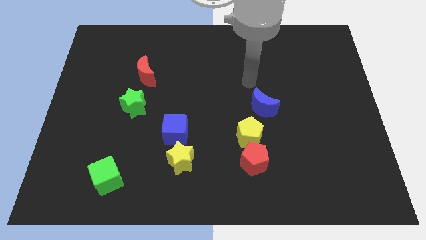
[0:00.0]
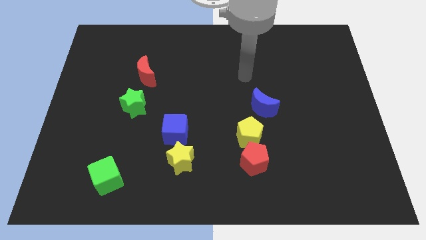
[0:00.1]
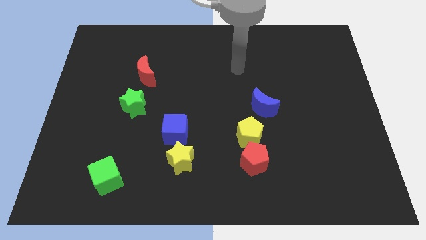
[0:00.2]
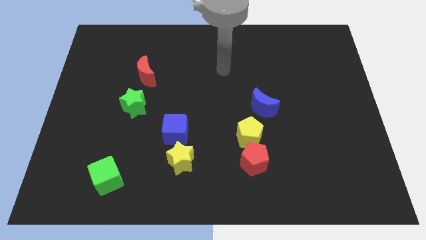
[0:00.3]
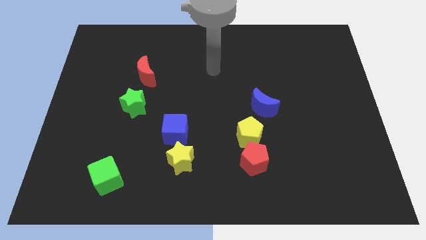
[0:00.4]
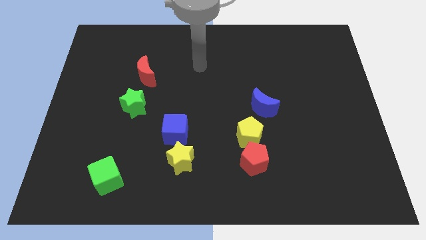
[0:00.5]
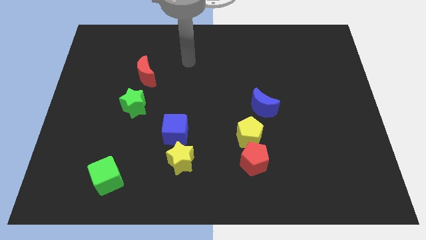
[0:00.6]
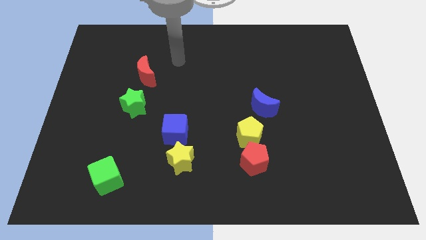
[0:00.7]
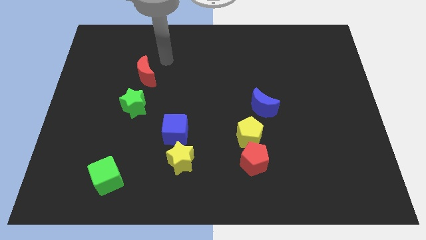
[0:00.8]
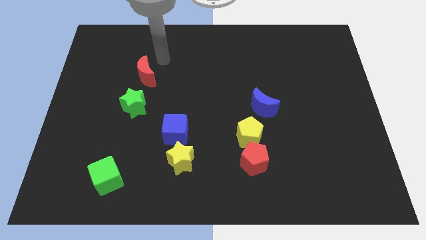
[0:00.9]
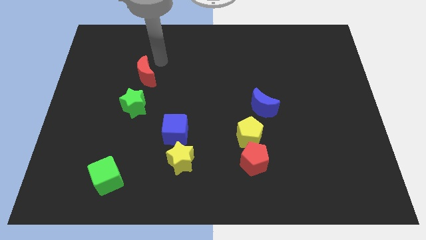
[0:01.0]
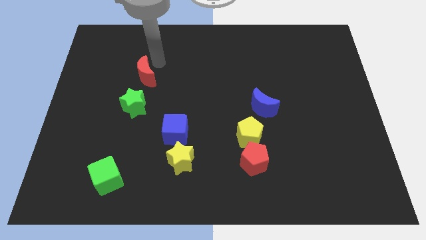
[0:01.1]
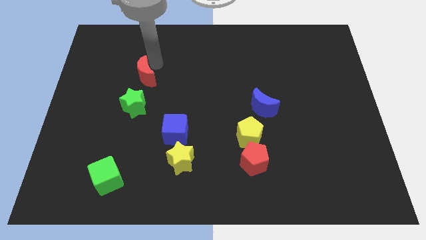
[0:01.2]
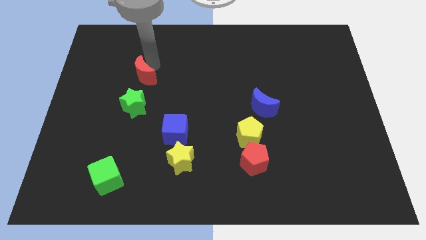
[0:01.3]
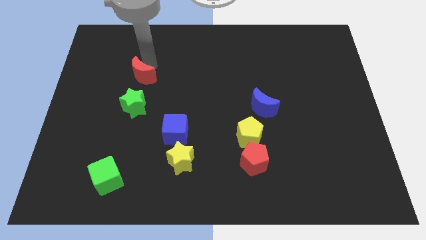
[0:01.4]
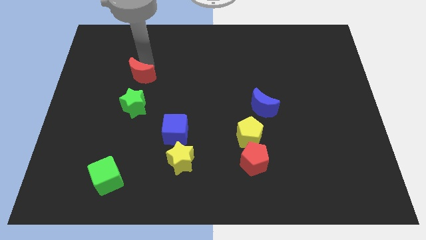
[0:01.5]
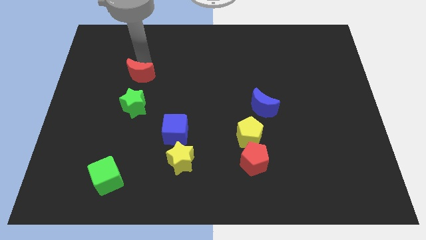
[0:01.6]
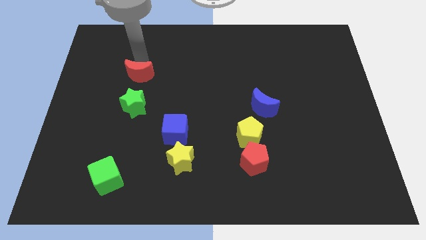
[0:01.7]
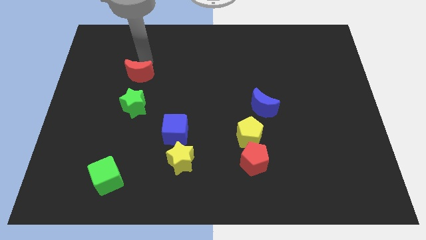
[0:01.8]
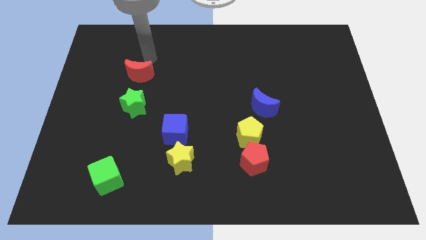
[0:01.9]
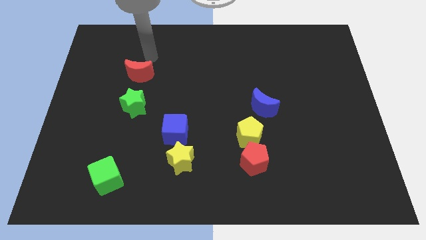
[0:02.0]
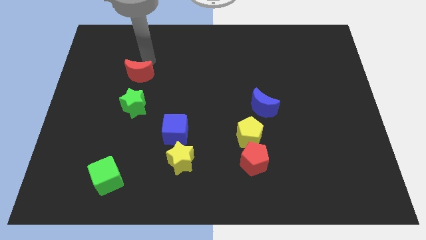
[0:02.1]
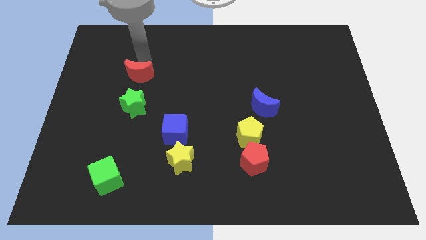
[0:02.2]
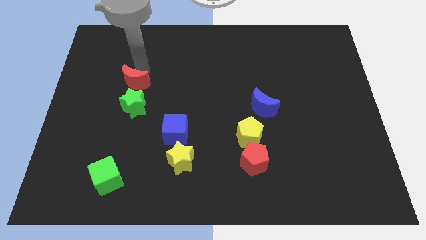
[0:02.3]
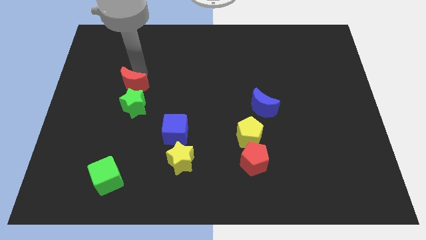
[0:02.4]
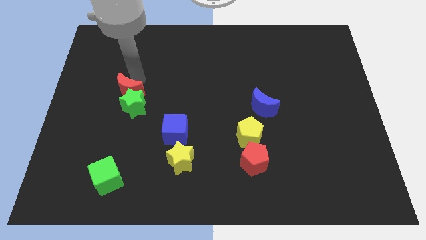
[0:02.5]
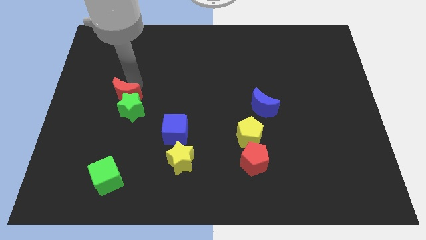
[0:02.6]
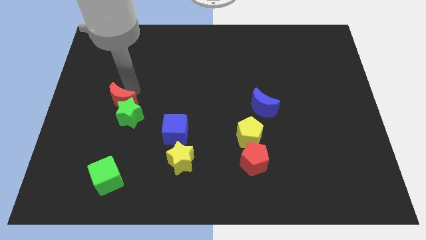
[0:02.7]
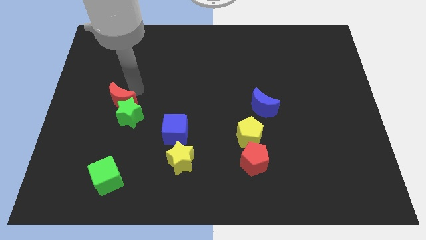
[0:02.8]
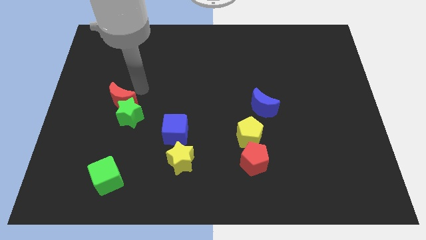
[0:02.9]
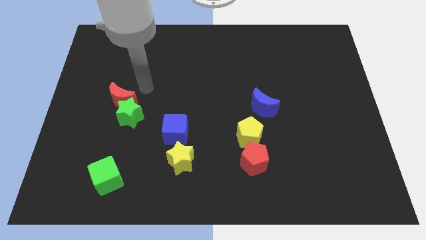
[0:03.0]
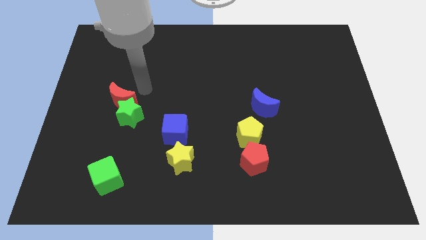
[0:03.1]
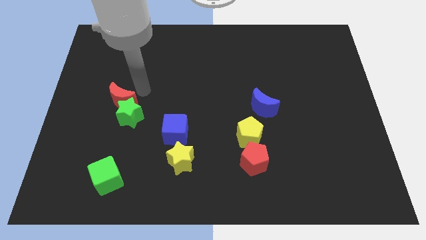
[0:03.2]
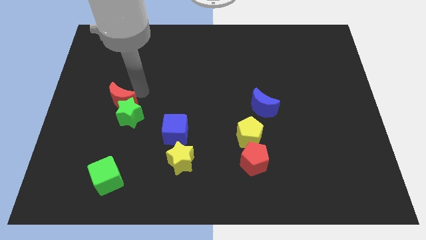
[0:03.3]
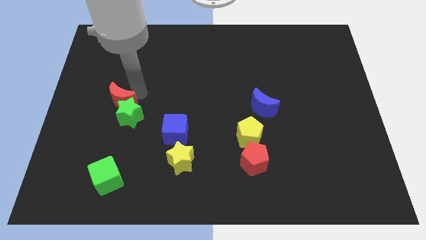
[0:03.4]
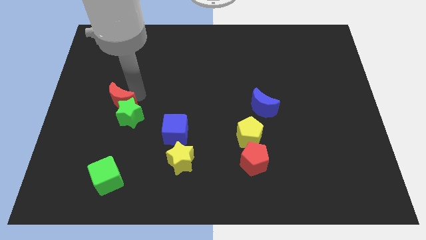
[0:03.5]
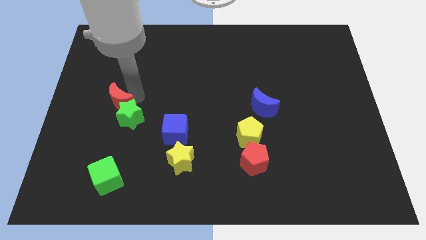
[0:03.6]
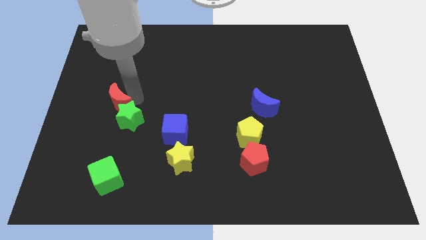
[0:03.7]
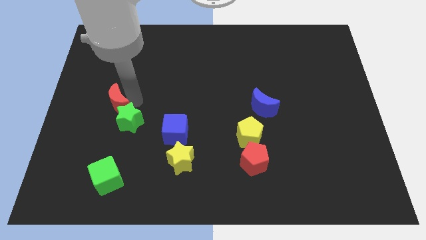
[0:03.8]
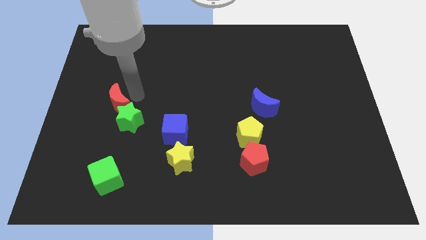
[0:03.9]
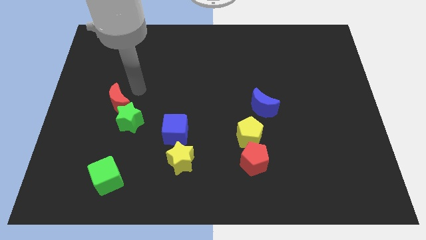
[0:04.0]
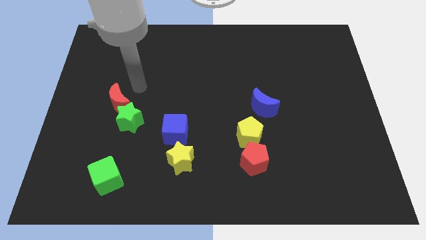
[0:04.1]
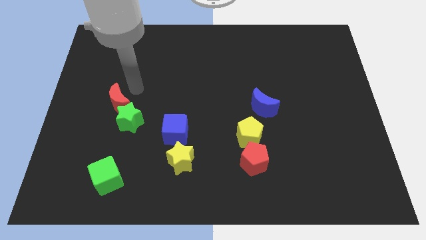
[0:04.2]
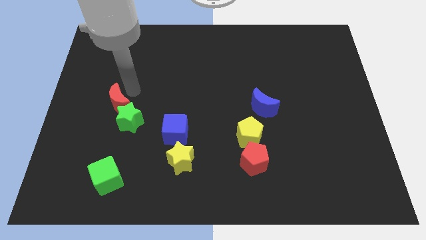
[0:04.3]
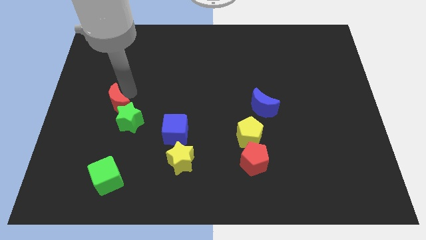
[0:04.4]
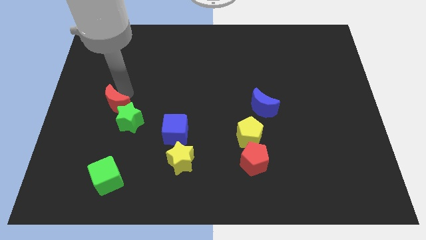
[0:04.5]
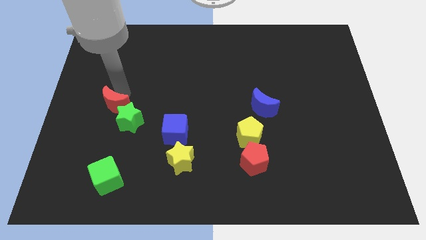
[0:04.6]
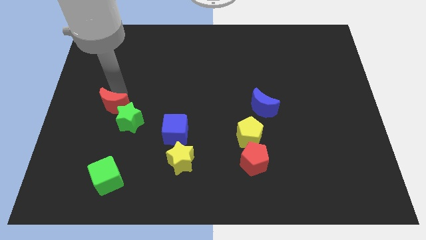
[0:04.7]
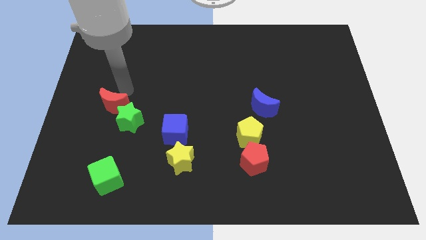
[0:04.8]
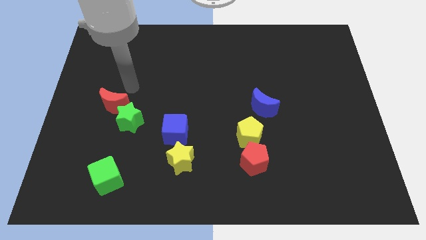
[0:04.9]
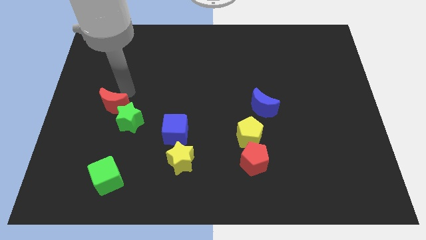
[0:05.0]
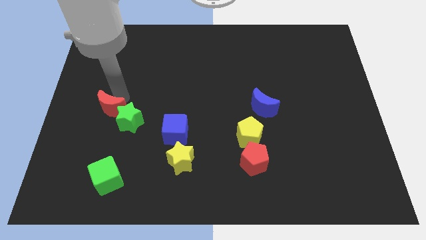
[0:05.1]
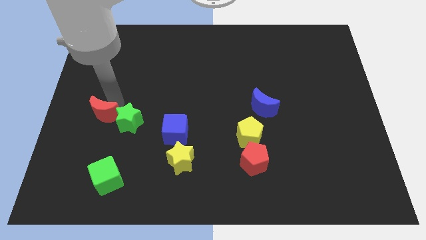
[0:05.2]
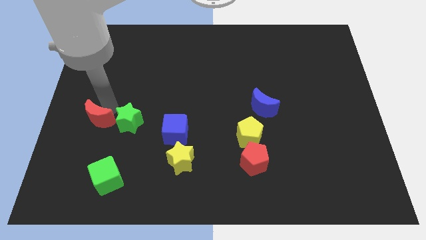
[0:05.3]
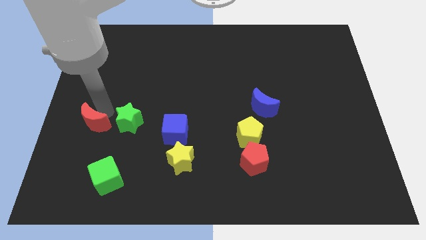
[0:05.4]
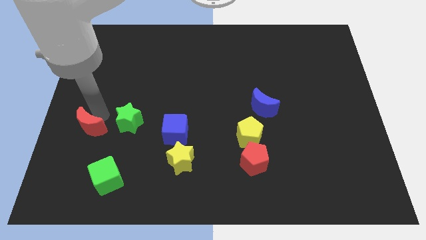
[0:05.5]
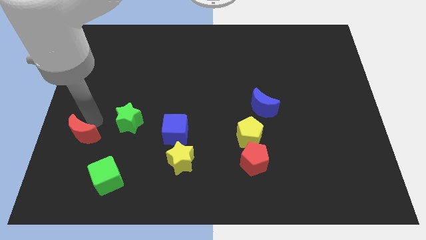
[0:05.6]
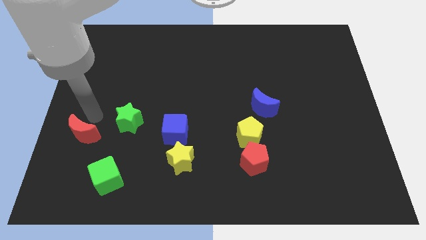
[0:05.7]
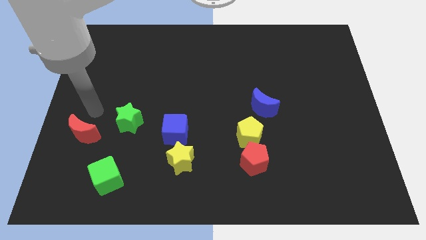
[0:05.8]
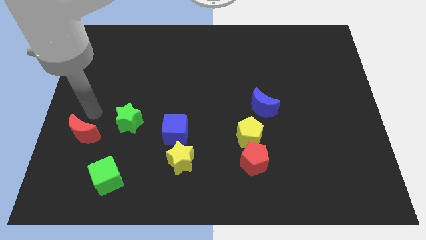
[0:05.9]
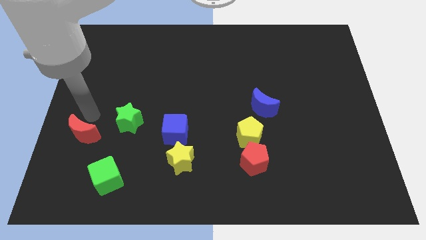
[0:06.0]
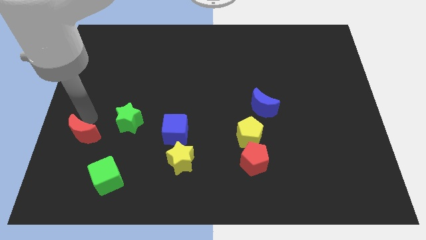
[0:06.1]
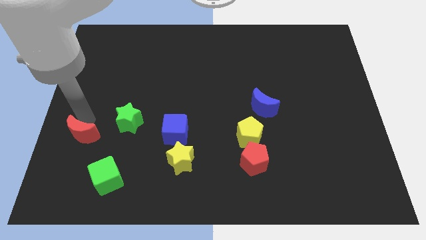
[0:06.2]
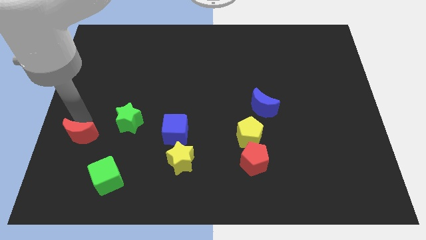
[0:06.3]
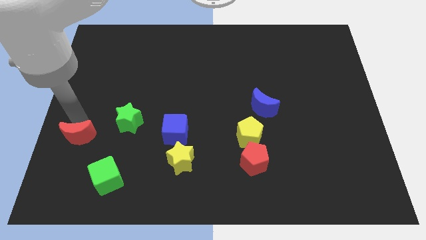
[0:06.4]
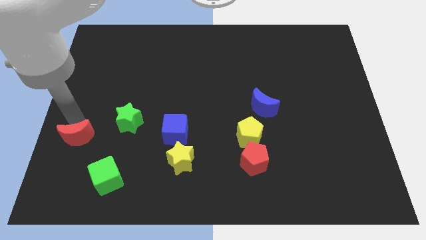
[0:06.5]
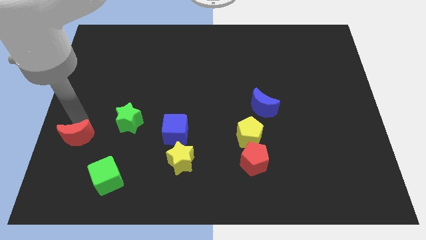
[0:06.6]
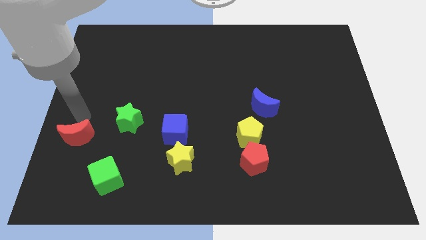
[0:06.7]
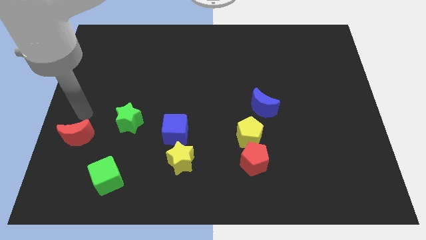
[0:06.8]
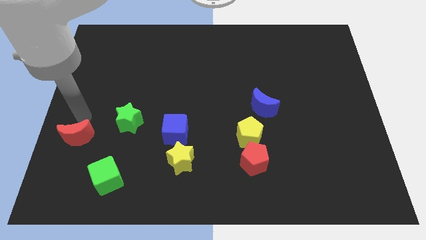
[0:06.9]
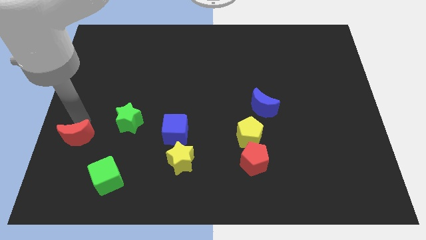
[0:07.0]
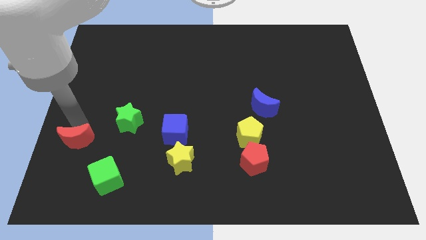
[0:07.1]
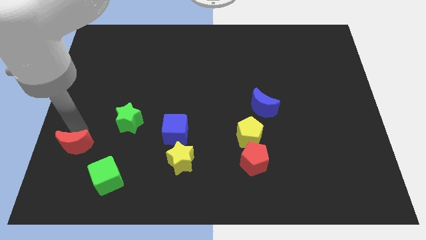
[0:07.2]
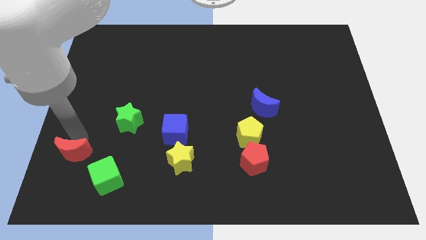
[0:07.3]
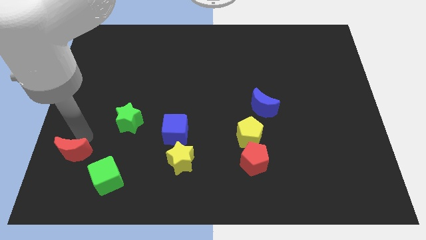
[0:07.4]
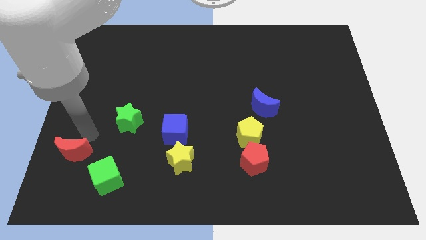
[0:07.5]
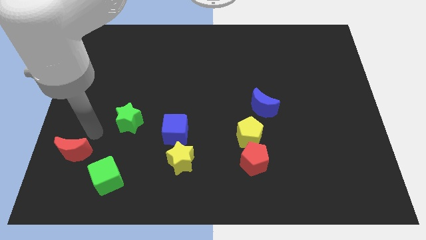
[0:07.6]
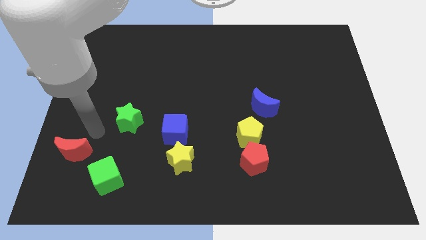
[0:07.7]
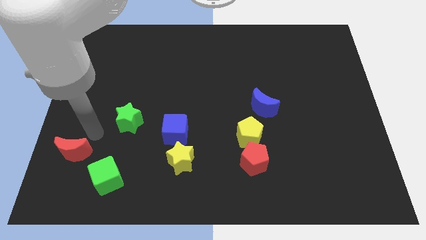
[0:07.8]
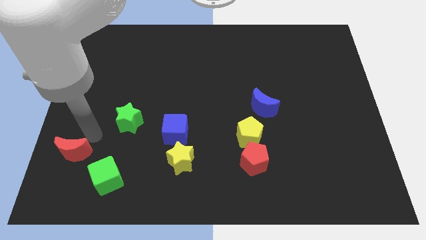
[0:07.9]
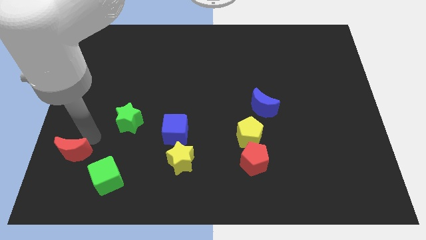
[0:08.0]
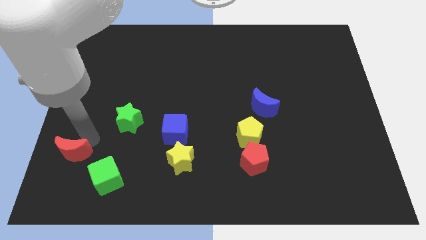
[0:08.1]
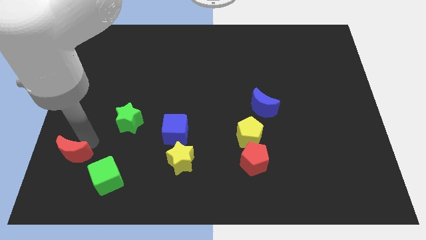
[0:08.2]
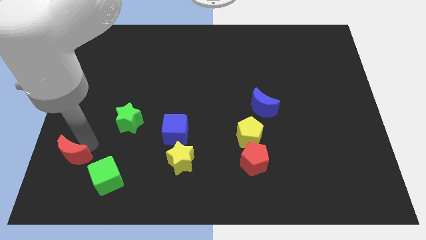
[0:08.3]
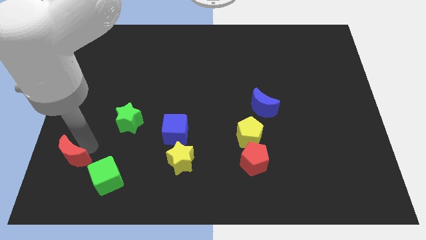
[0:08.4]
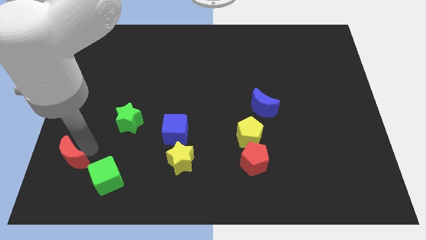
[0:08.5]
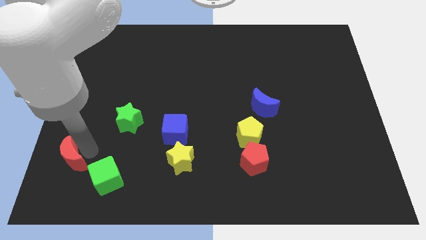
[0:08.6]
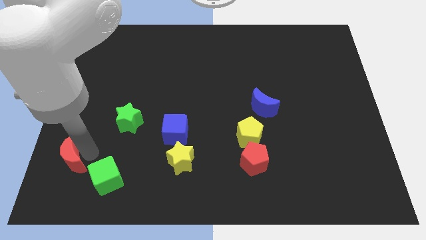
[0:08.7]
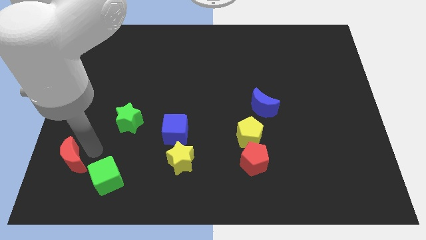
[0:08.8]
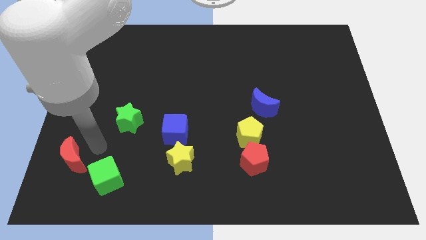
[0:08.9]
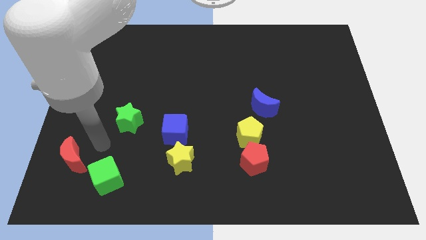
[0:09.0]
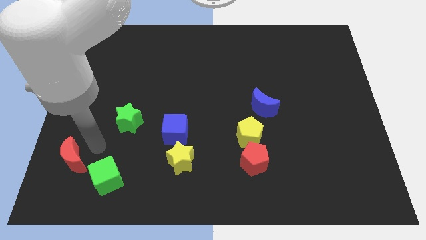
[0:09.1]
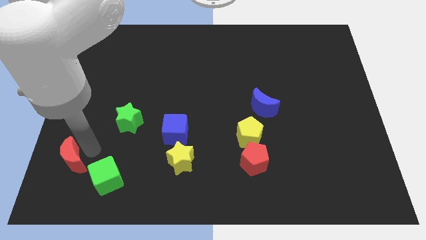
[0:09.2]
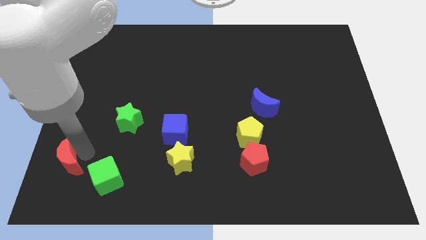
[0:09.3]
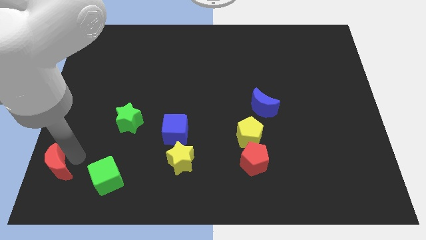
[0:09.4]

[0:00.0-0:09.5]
put the red moon to the bottom left of the board
